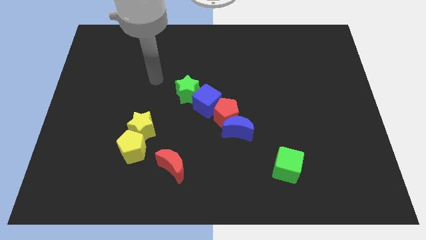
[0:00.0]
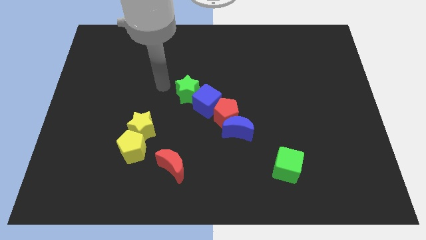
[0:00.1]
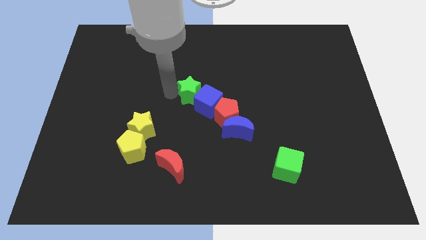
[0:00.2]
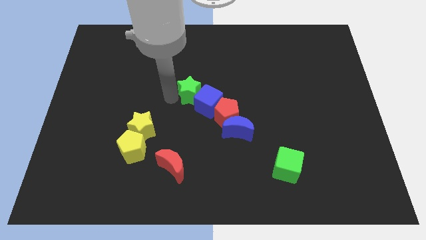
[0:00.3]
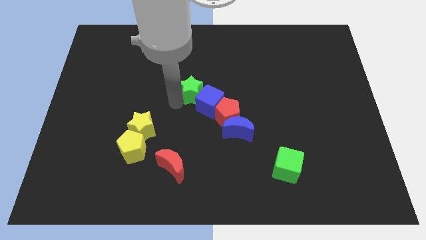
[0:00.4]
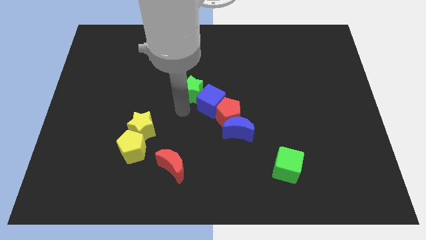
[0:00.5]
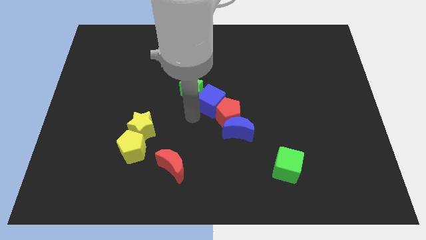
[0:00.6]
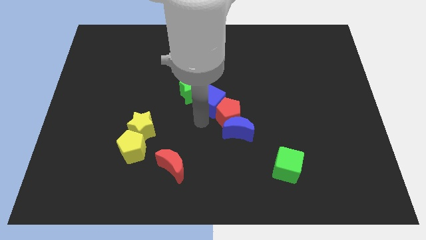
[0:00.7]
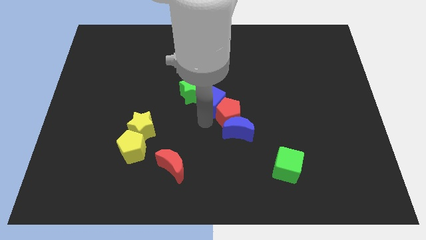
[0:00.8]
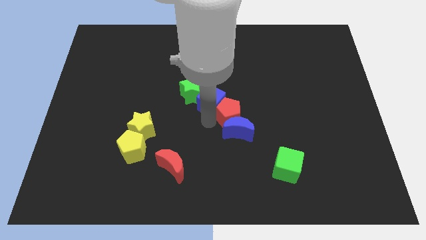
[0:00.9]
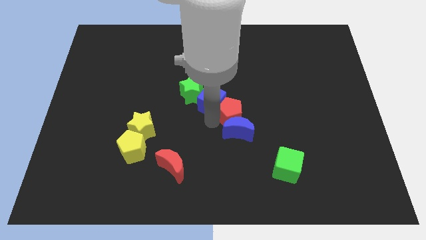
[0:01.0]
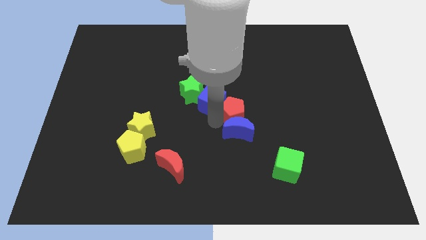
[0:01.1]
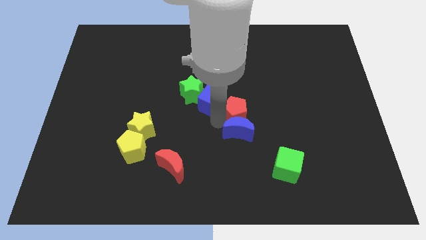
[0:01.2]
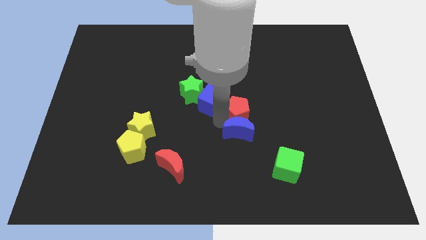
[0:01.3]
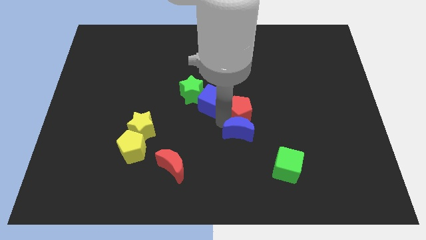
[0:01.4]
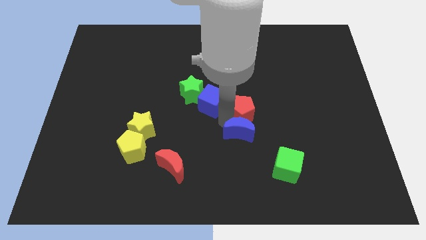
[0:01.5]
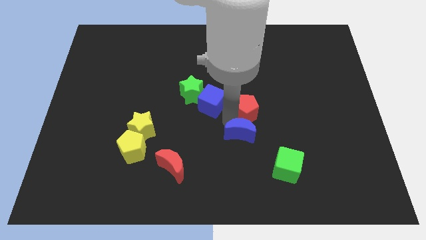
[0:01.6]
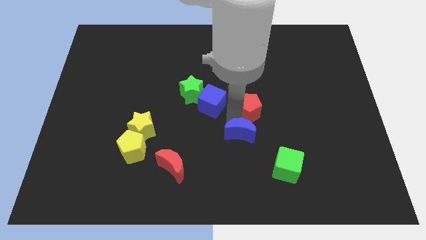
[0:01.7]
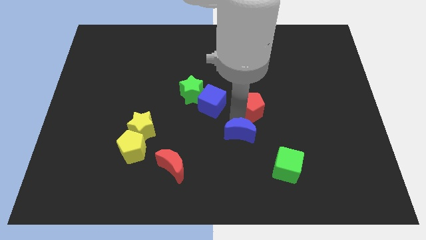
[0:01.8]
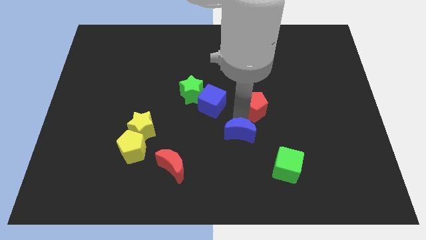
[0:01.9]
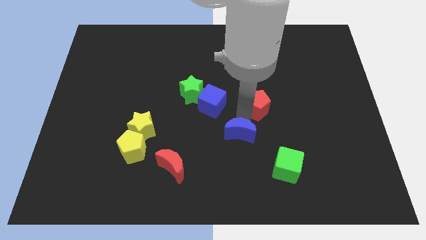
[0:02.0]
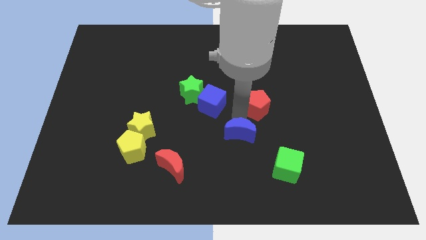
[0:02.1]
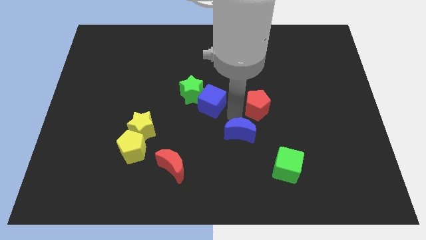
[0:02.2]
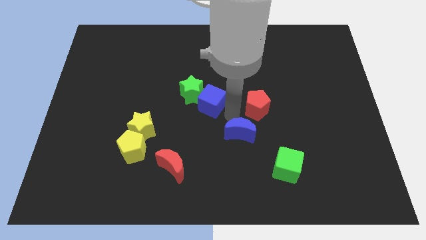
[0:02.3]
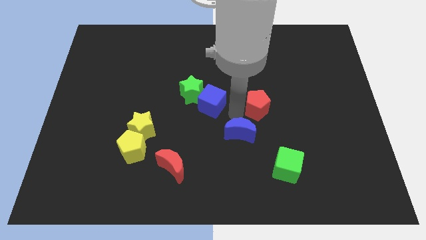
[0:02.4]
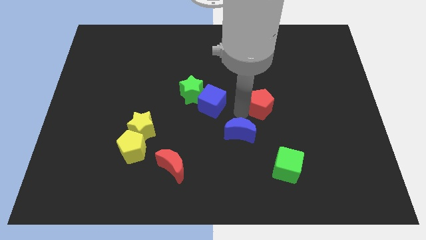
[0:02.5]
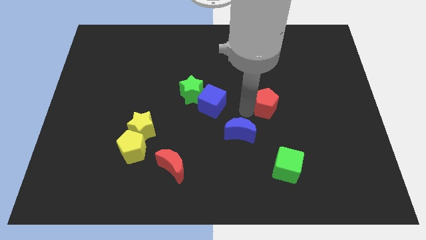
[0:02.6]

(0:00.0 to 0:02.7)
separate the red pentagon from the blue moon and blue cube

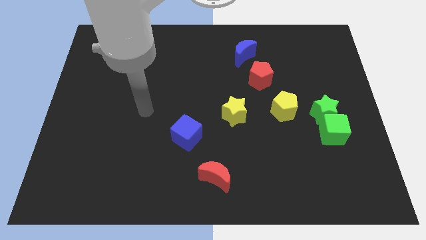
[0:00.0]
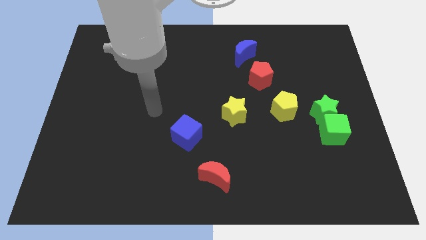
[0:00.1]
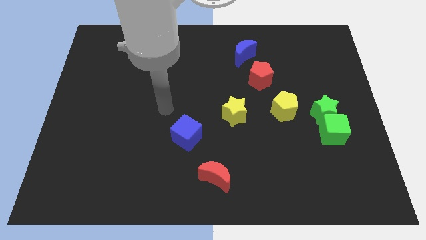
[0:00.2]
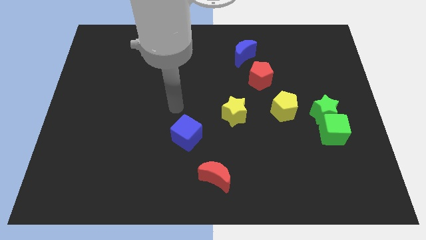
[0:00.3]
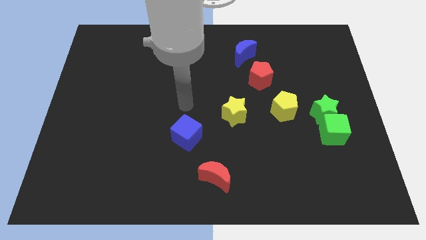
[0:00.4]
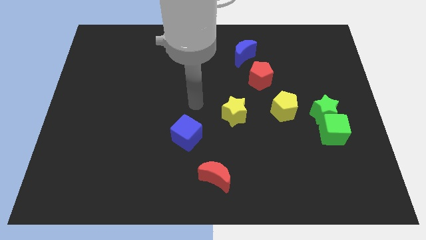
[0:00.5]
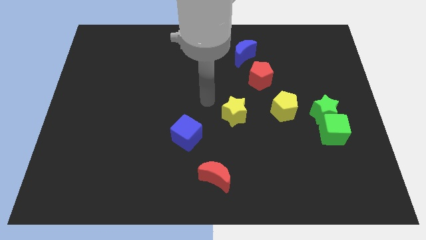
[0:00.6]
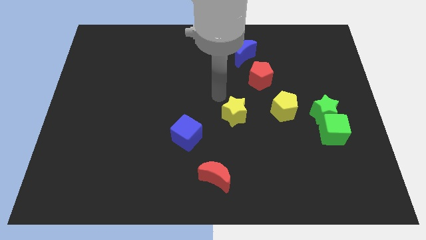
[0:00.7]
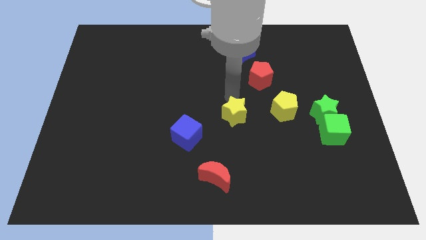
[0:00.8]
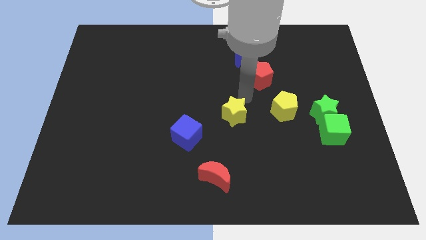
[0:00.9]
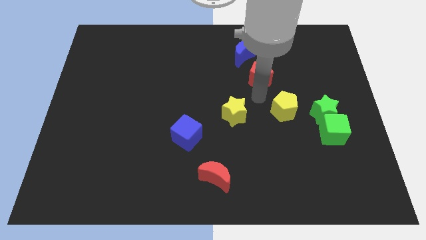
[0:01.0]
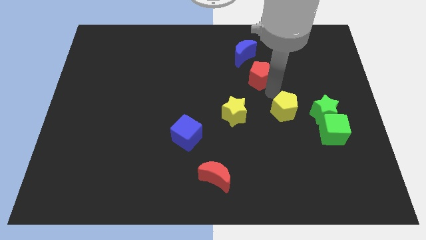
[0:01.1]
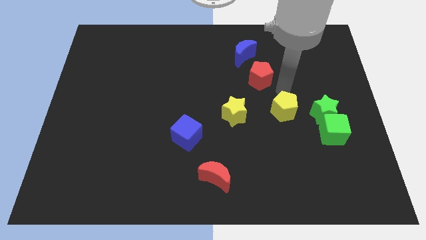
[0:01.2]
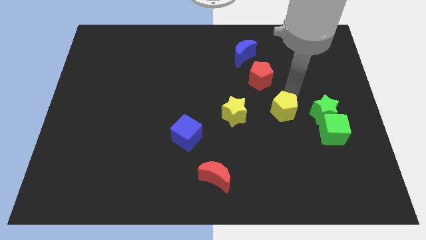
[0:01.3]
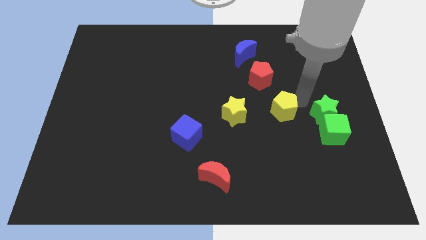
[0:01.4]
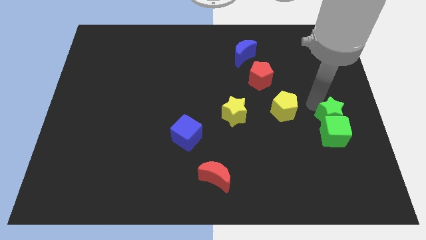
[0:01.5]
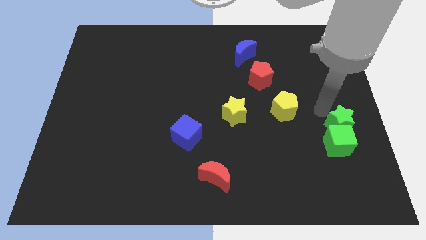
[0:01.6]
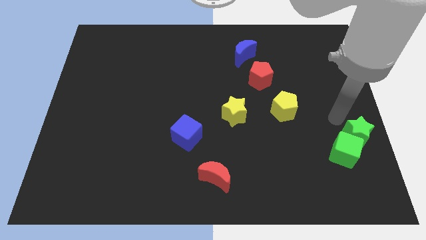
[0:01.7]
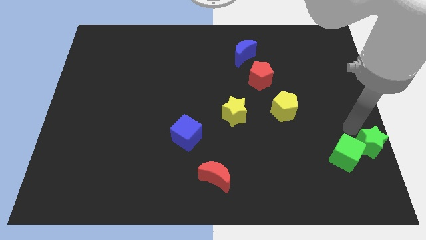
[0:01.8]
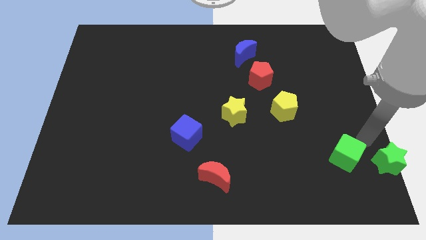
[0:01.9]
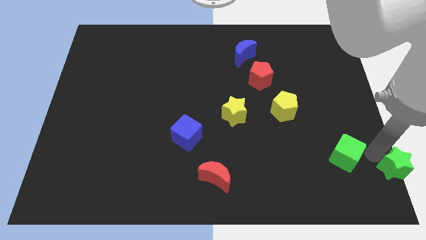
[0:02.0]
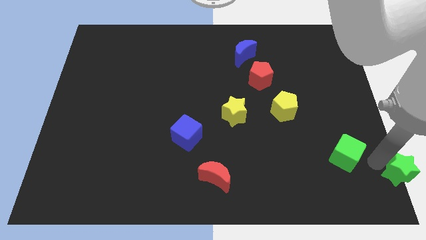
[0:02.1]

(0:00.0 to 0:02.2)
separate the green cube from the green star

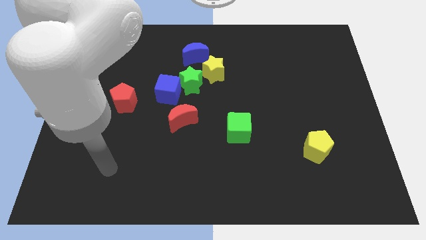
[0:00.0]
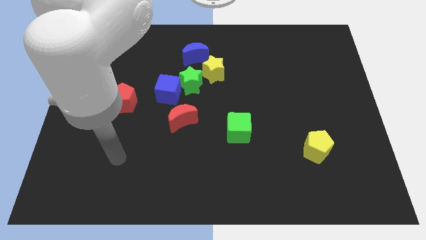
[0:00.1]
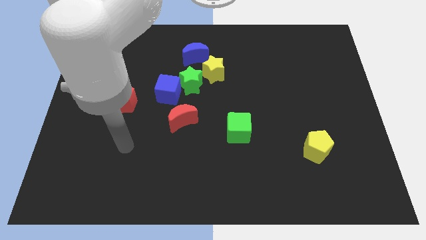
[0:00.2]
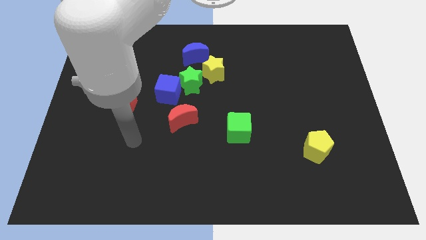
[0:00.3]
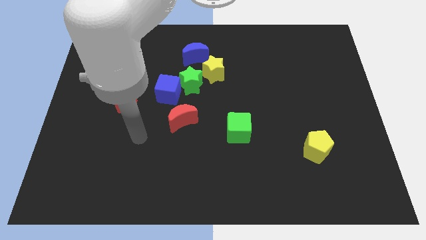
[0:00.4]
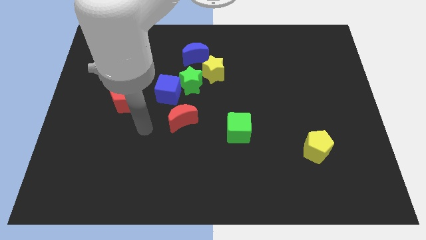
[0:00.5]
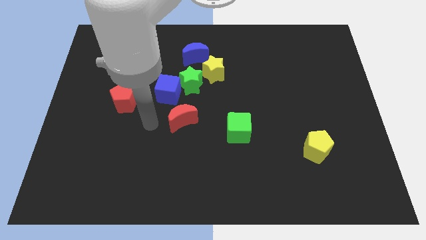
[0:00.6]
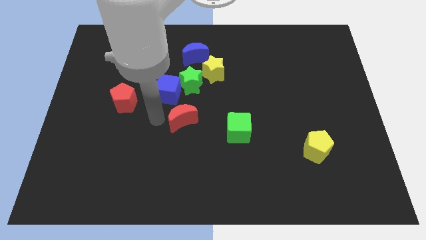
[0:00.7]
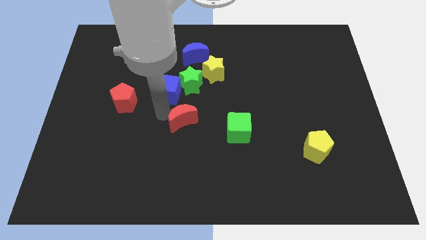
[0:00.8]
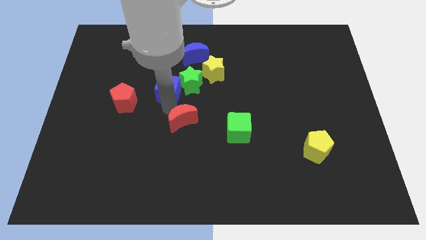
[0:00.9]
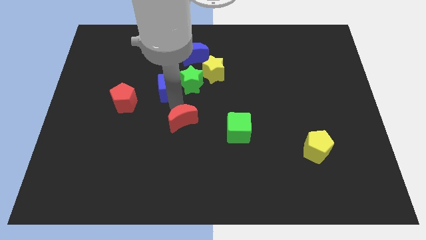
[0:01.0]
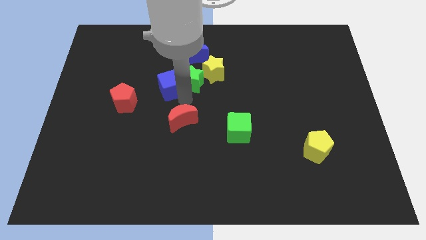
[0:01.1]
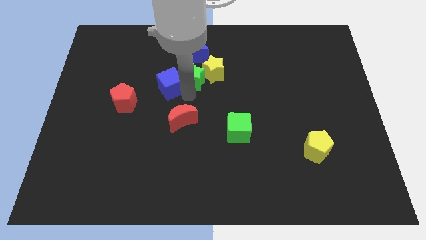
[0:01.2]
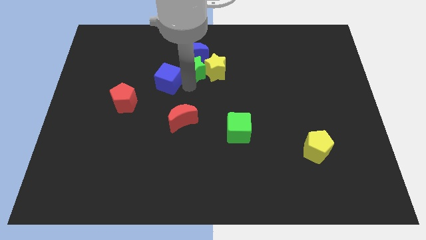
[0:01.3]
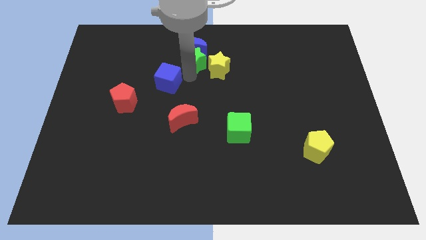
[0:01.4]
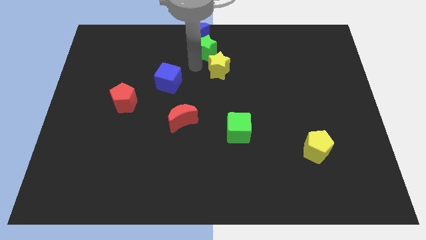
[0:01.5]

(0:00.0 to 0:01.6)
pull the yellow star apart from the green star and blue moon

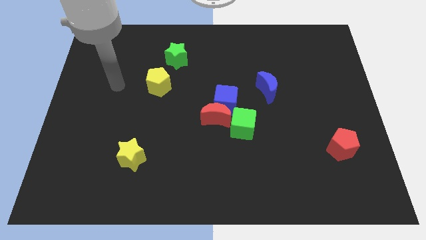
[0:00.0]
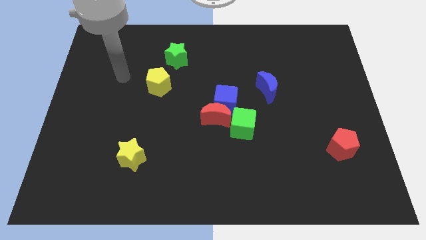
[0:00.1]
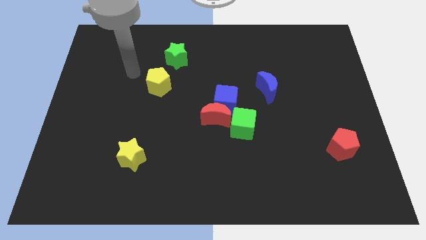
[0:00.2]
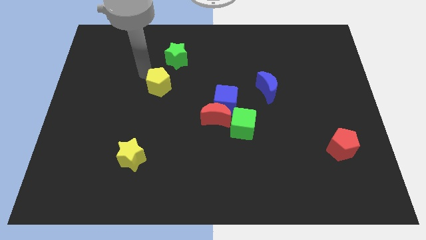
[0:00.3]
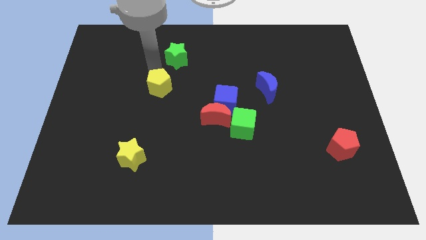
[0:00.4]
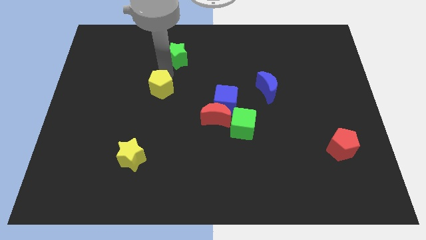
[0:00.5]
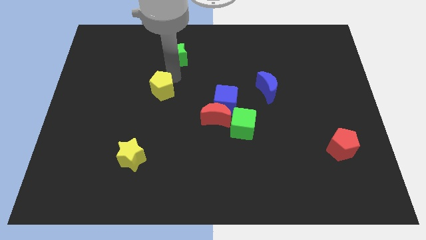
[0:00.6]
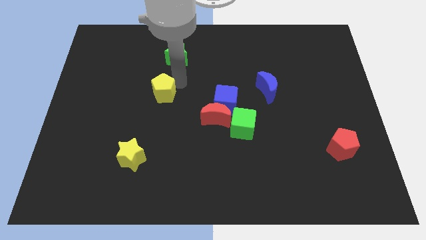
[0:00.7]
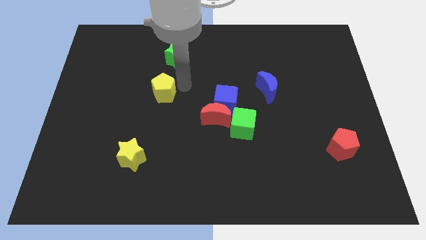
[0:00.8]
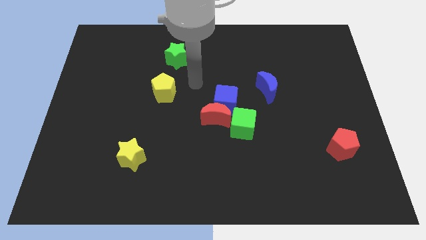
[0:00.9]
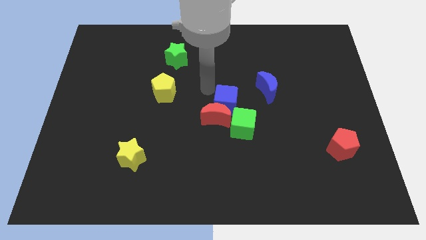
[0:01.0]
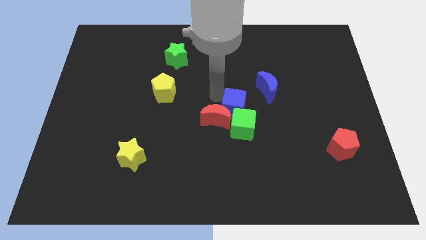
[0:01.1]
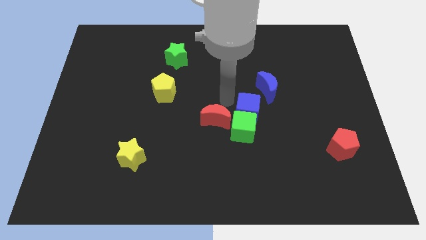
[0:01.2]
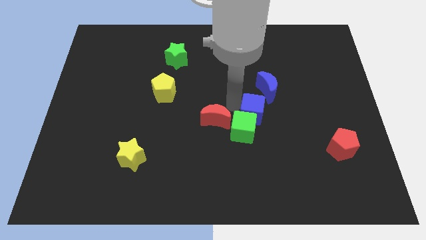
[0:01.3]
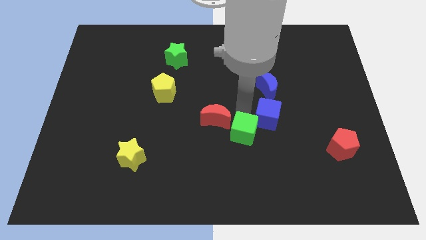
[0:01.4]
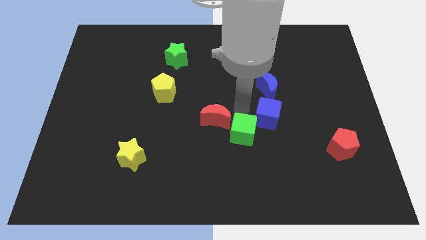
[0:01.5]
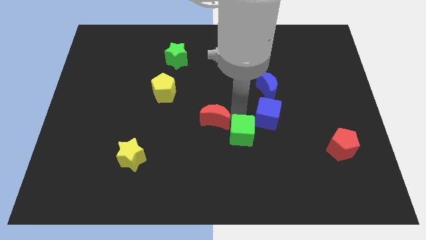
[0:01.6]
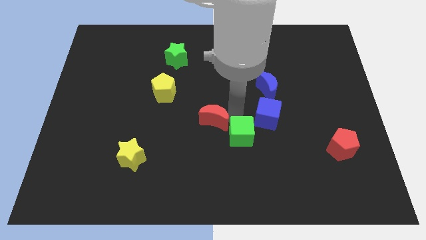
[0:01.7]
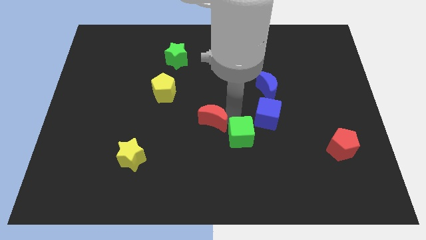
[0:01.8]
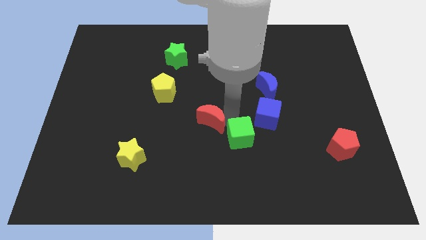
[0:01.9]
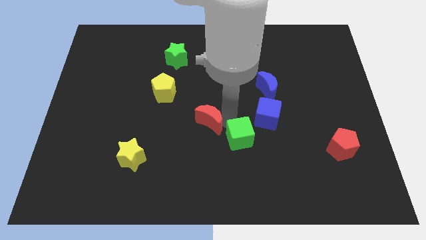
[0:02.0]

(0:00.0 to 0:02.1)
move the red moon away from the blue cube and green cube

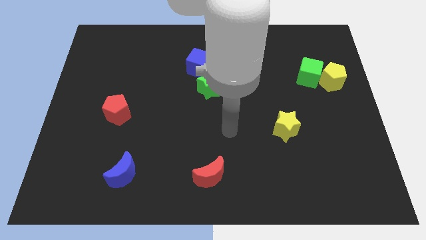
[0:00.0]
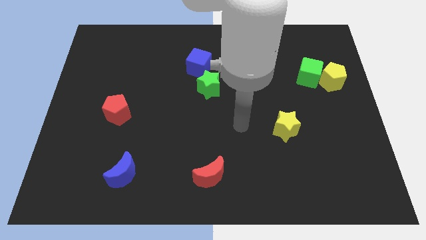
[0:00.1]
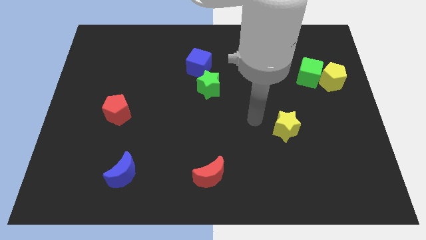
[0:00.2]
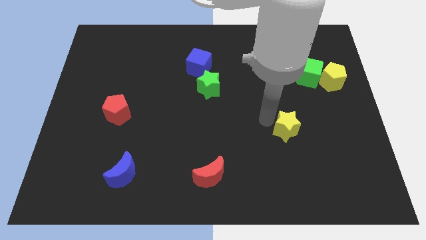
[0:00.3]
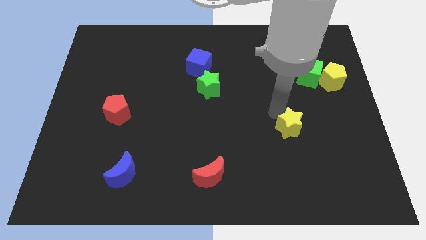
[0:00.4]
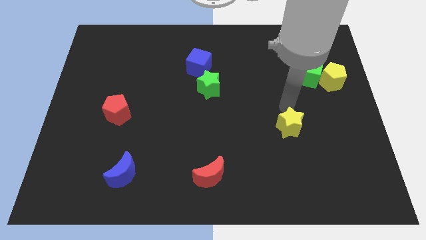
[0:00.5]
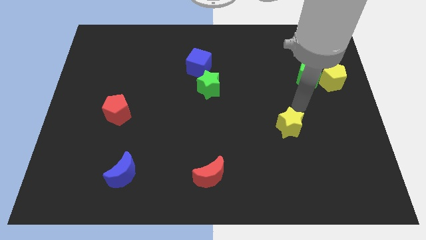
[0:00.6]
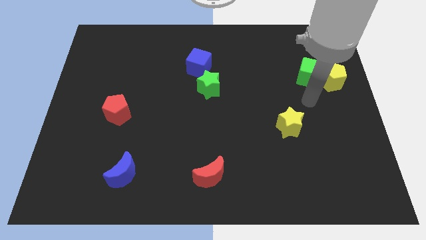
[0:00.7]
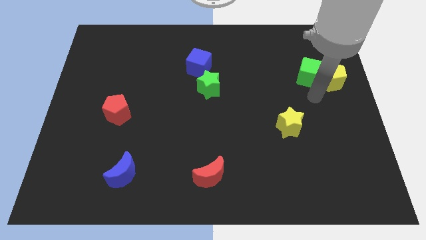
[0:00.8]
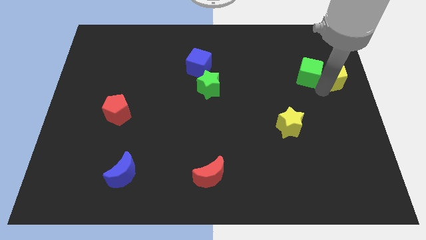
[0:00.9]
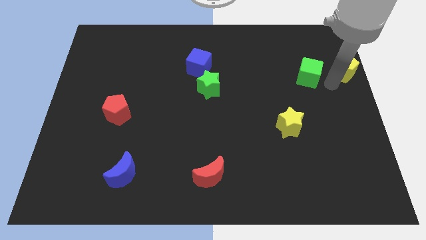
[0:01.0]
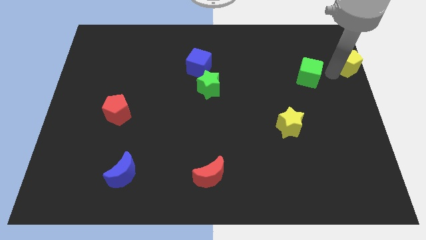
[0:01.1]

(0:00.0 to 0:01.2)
pull the green cube apart from the yellow pentagon
